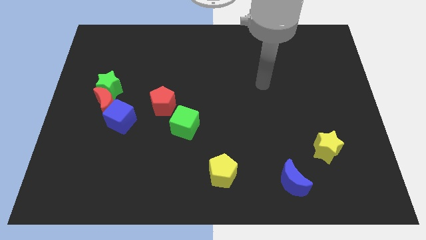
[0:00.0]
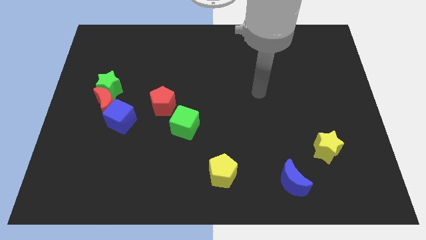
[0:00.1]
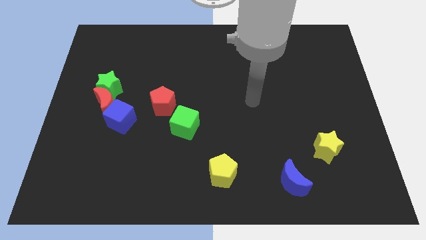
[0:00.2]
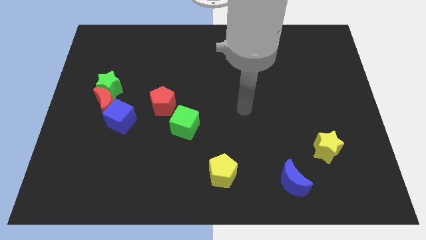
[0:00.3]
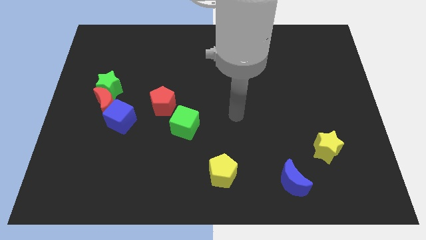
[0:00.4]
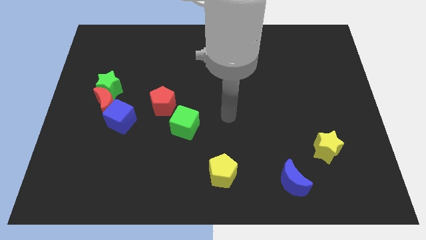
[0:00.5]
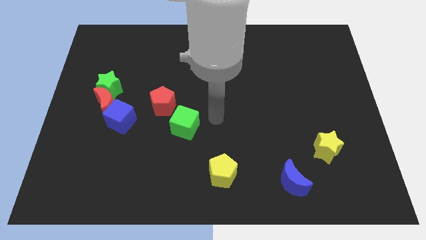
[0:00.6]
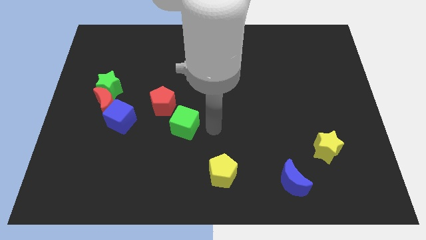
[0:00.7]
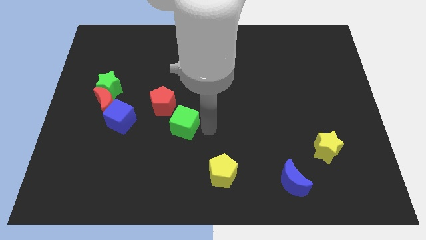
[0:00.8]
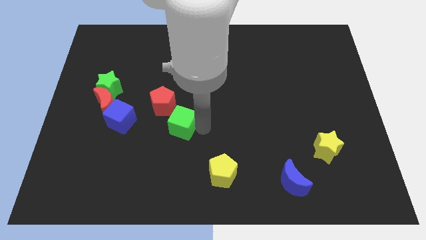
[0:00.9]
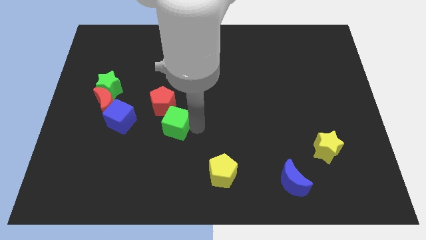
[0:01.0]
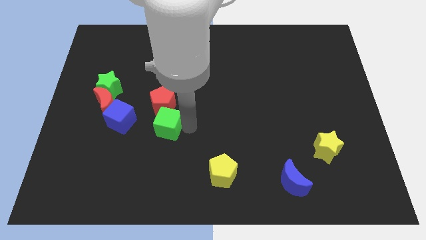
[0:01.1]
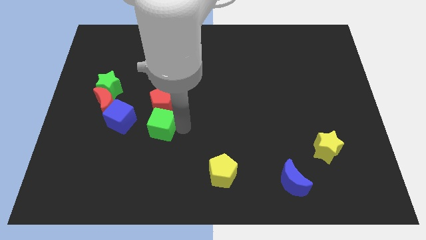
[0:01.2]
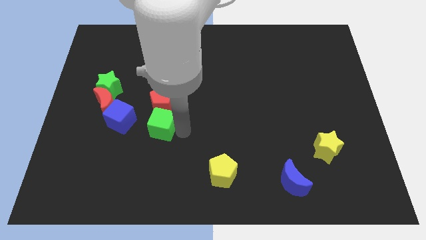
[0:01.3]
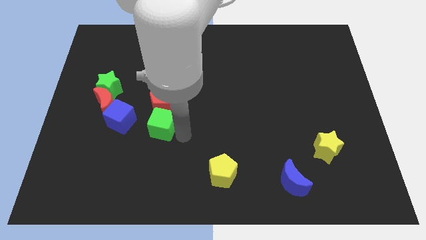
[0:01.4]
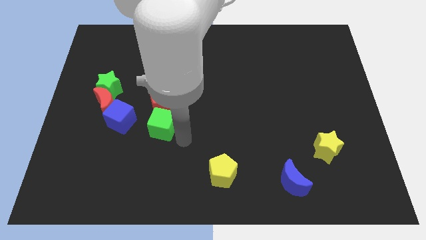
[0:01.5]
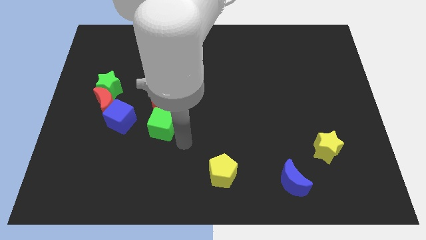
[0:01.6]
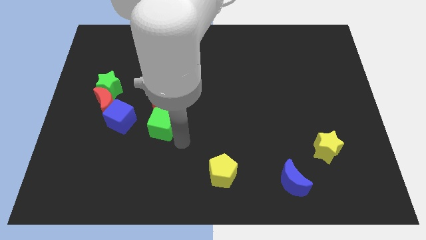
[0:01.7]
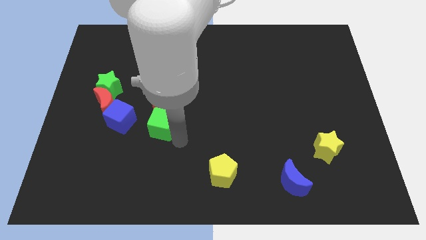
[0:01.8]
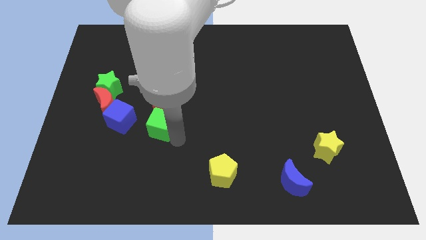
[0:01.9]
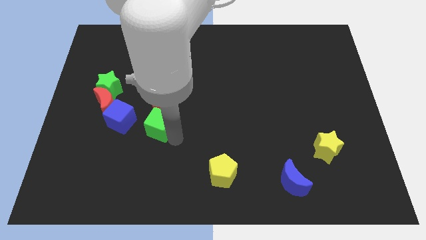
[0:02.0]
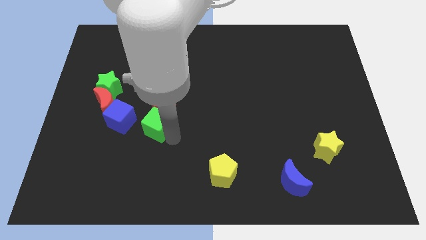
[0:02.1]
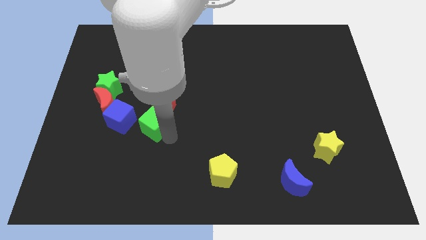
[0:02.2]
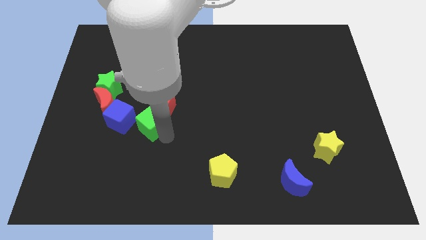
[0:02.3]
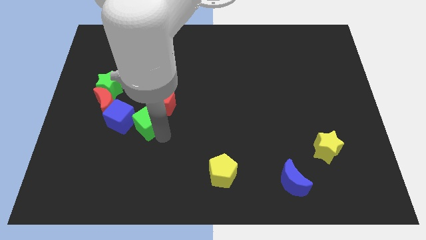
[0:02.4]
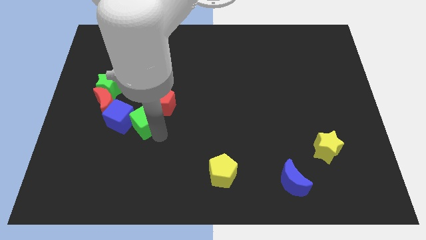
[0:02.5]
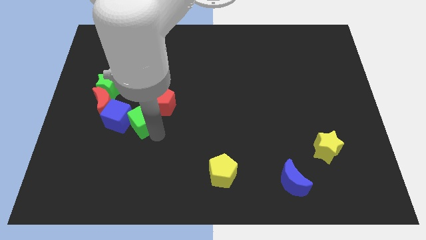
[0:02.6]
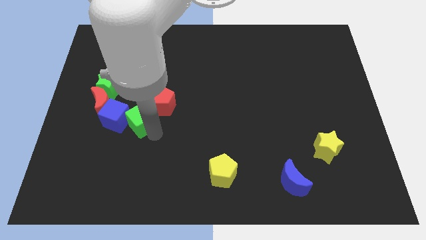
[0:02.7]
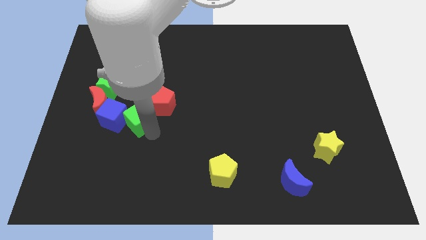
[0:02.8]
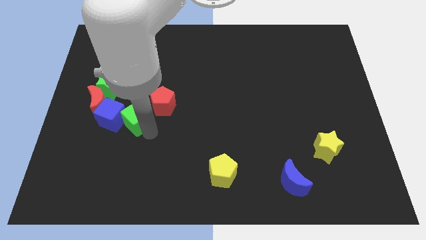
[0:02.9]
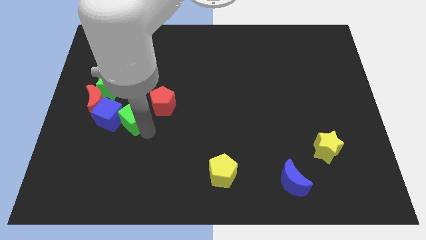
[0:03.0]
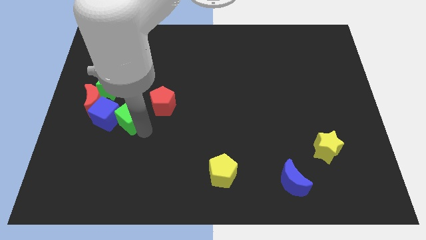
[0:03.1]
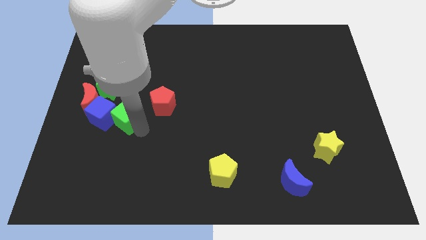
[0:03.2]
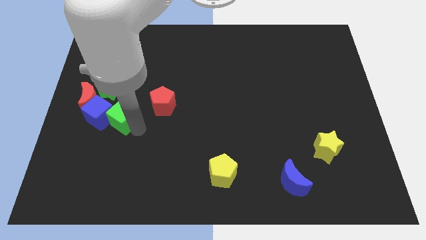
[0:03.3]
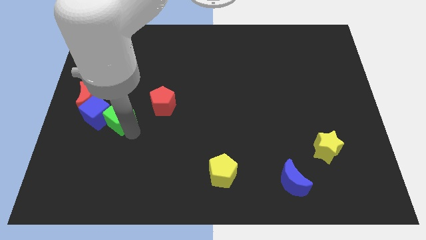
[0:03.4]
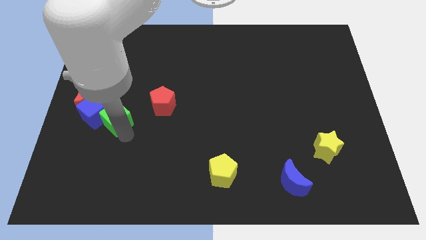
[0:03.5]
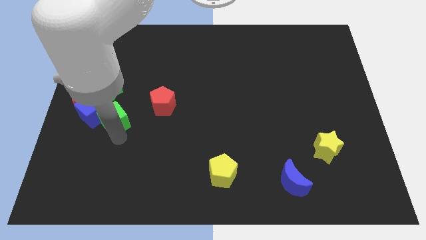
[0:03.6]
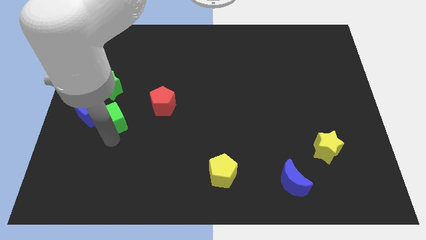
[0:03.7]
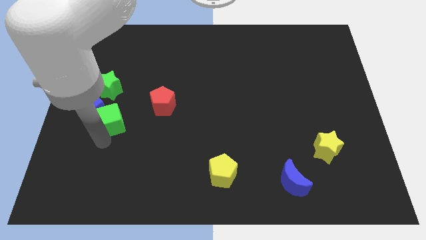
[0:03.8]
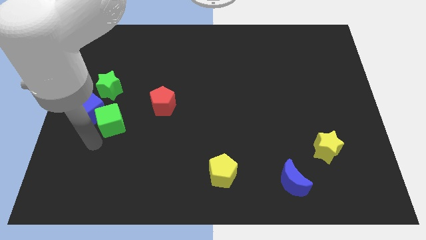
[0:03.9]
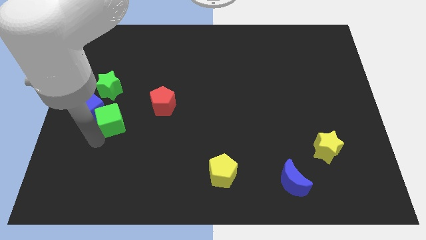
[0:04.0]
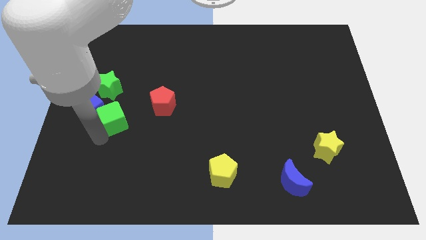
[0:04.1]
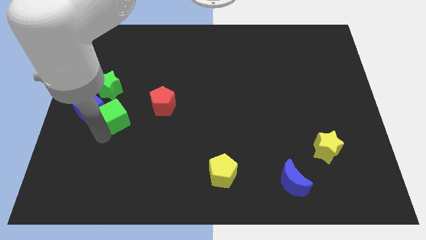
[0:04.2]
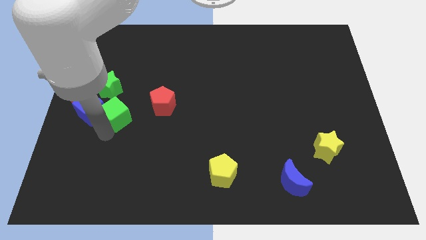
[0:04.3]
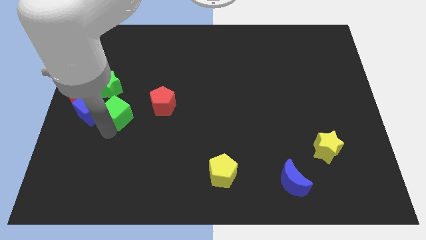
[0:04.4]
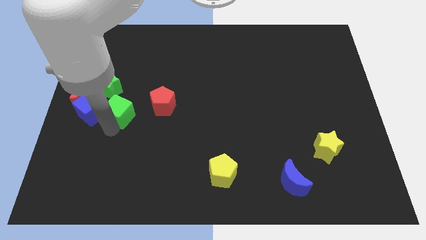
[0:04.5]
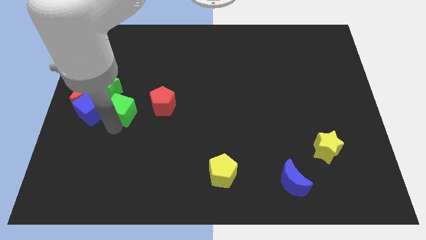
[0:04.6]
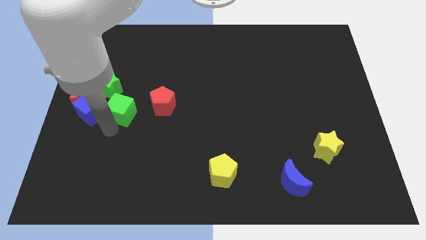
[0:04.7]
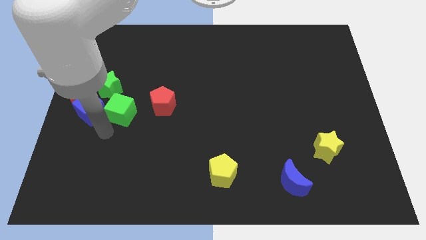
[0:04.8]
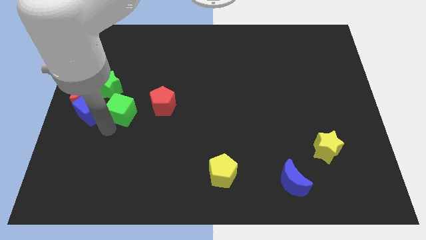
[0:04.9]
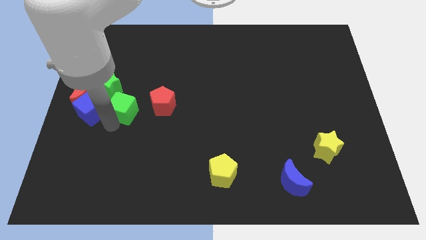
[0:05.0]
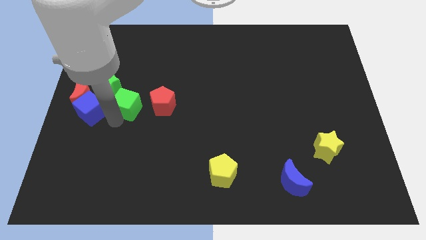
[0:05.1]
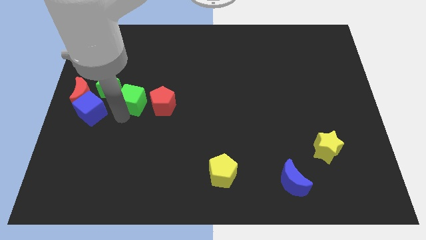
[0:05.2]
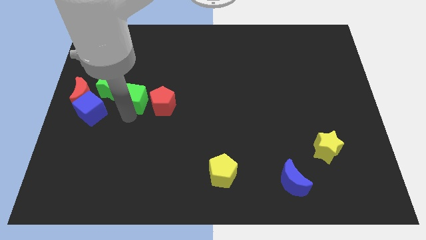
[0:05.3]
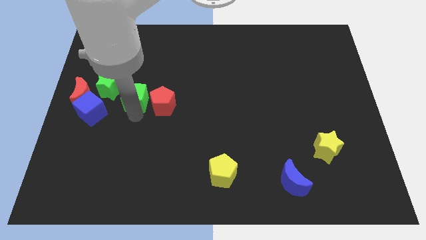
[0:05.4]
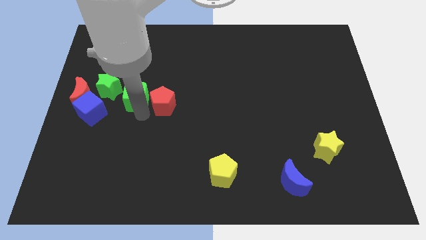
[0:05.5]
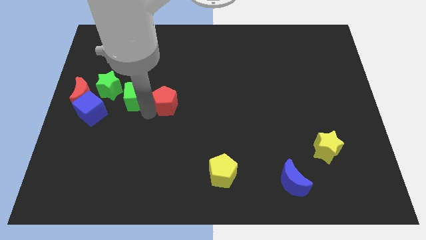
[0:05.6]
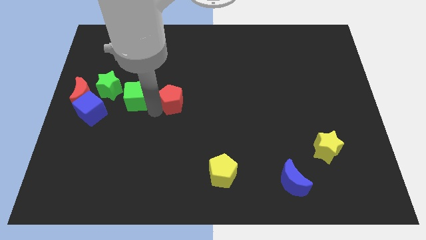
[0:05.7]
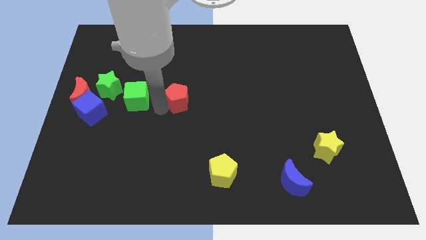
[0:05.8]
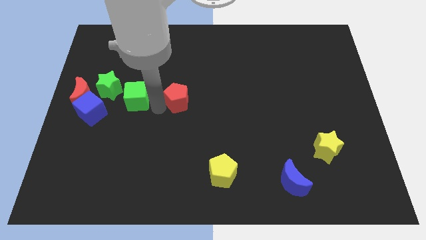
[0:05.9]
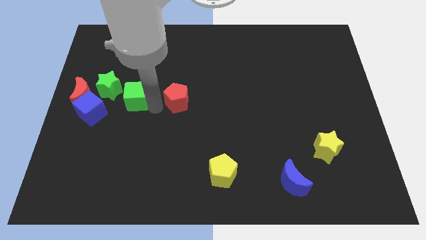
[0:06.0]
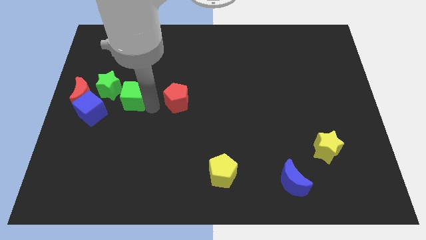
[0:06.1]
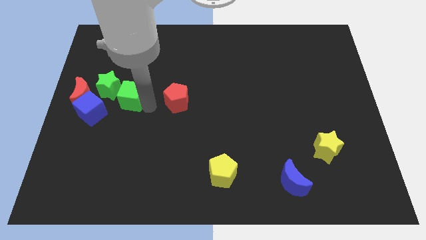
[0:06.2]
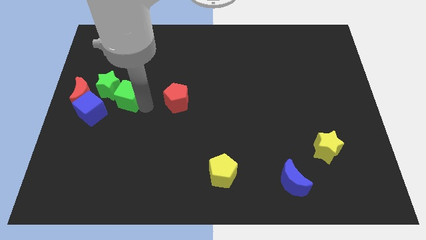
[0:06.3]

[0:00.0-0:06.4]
push the green cube to the green star
